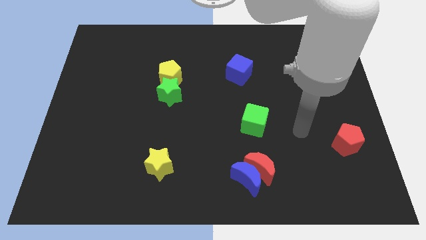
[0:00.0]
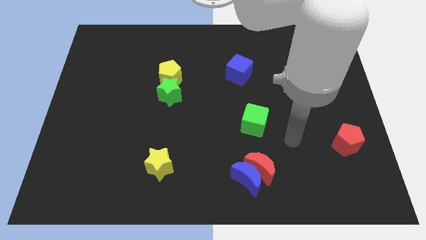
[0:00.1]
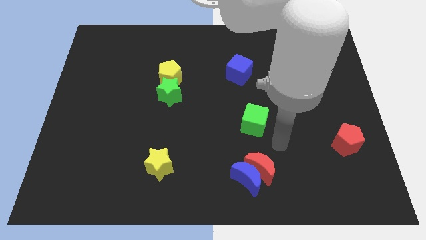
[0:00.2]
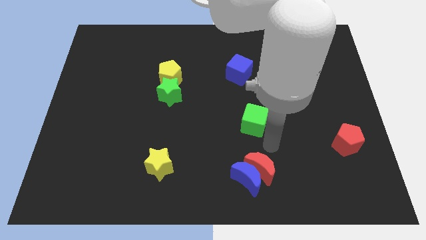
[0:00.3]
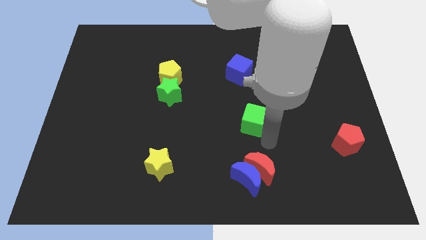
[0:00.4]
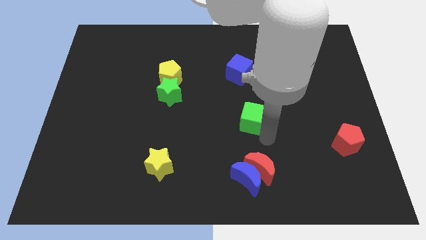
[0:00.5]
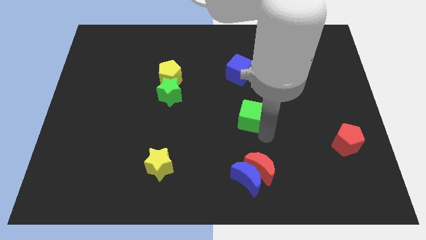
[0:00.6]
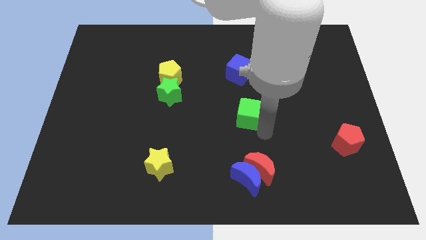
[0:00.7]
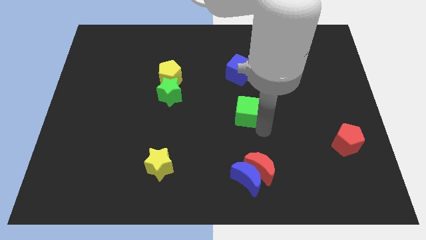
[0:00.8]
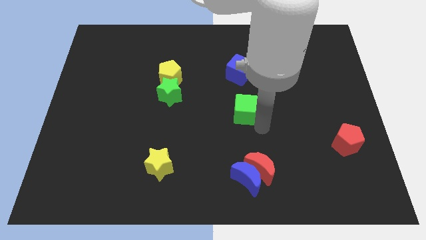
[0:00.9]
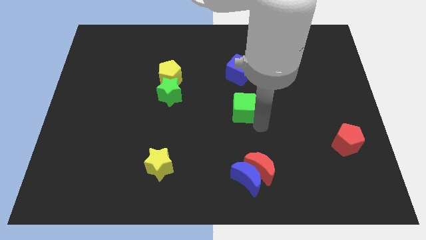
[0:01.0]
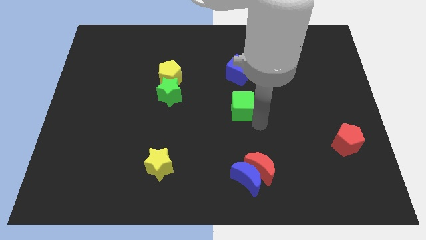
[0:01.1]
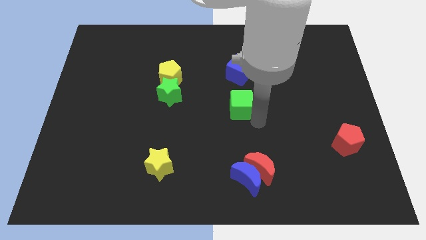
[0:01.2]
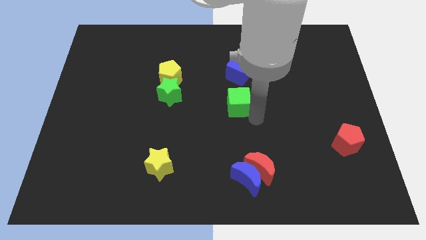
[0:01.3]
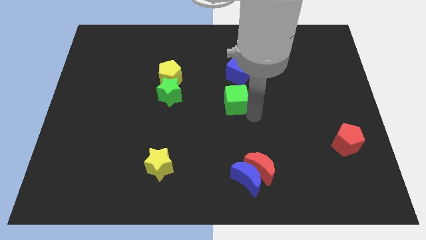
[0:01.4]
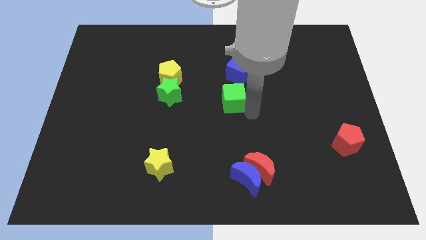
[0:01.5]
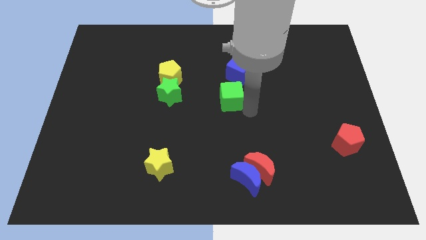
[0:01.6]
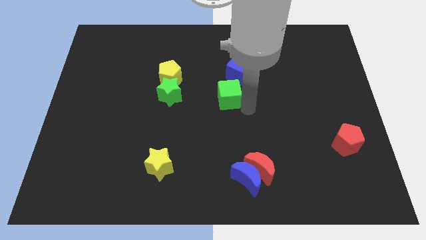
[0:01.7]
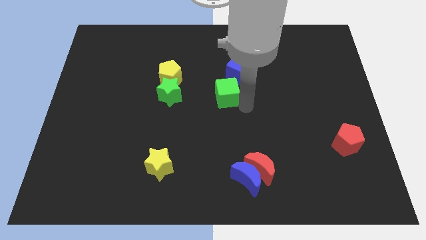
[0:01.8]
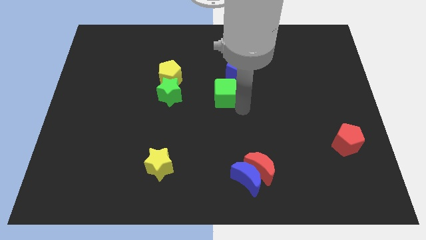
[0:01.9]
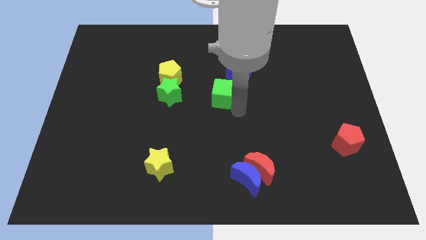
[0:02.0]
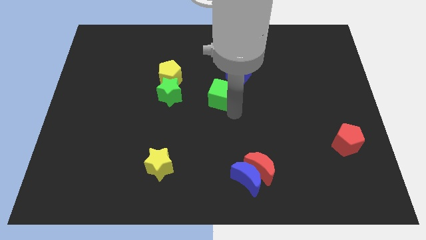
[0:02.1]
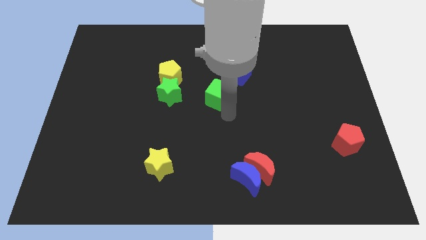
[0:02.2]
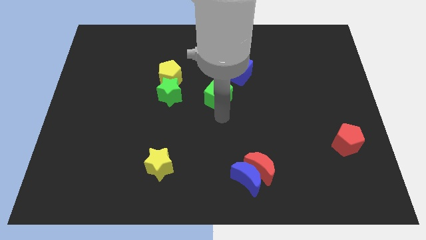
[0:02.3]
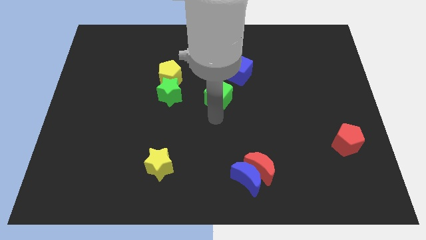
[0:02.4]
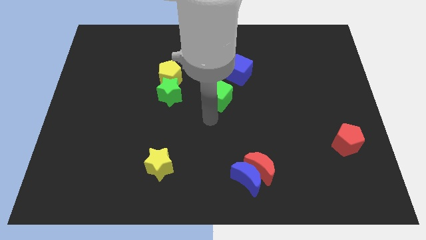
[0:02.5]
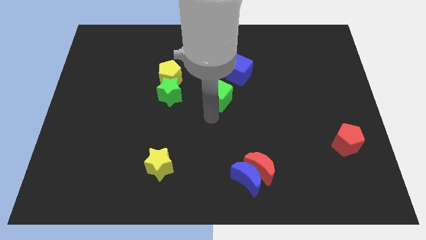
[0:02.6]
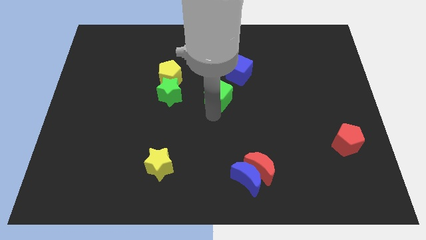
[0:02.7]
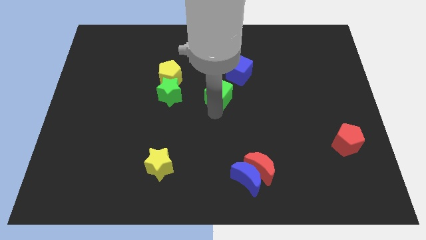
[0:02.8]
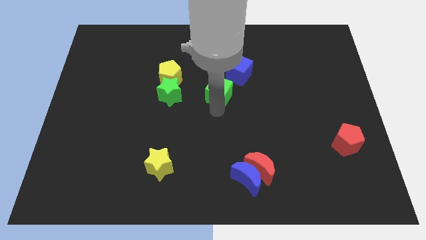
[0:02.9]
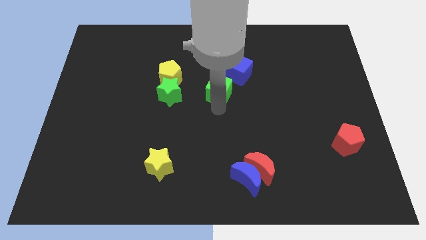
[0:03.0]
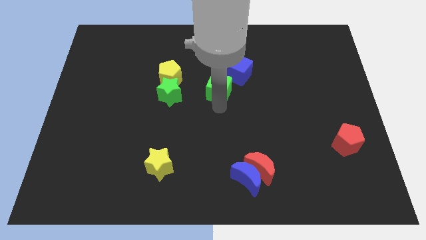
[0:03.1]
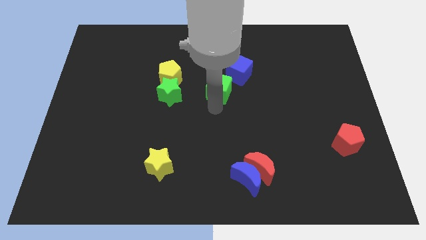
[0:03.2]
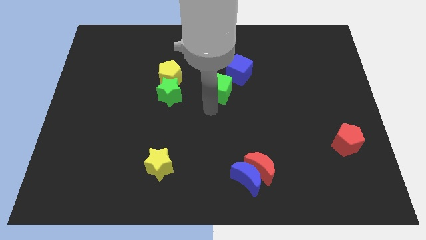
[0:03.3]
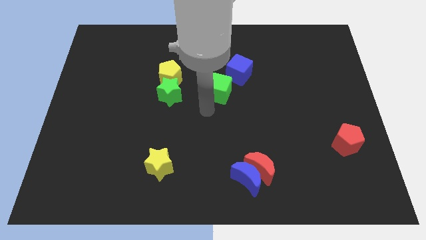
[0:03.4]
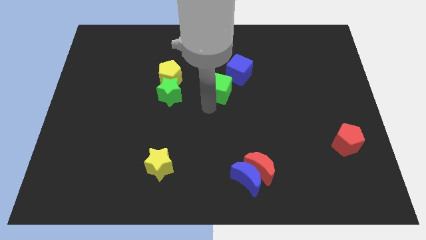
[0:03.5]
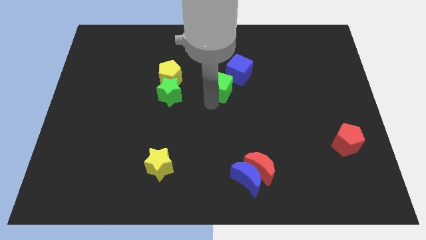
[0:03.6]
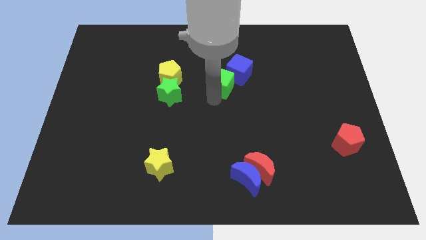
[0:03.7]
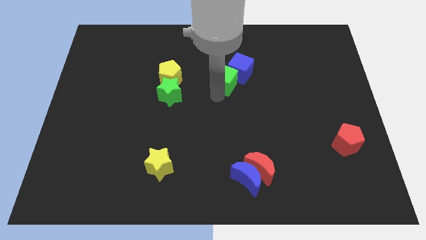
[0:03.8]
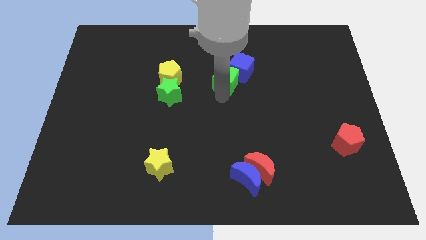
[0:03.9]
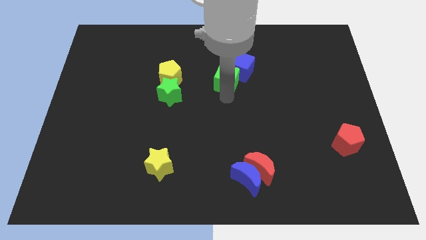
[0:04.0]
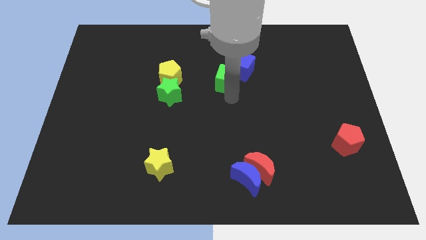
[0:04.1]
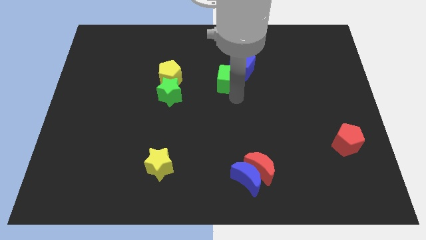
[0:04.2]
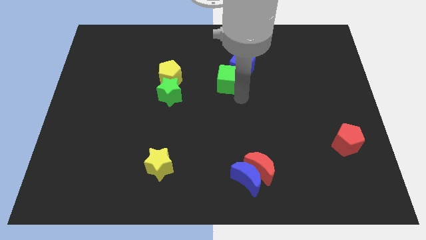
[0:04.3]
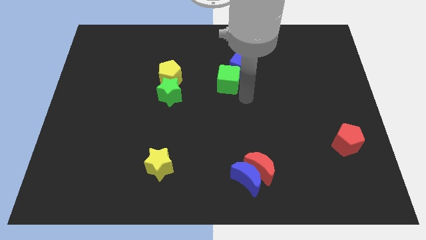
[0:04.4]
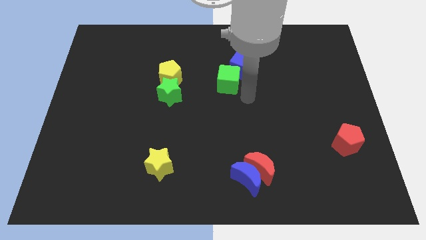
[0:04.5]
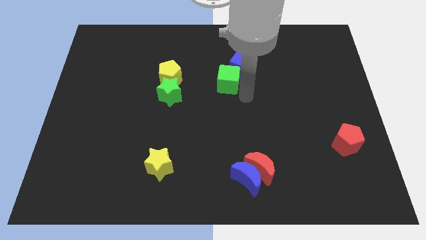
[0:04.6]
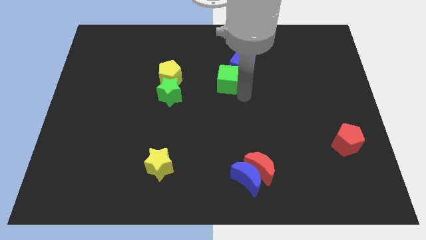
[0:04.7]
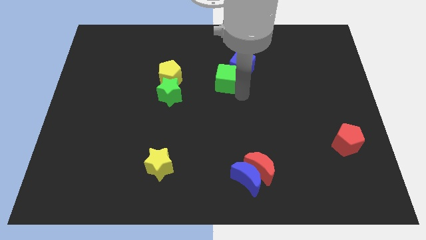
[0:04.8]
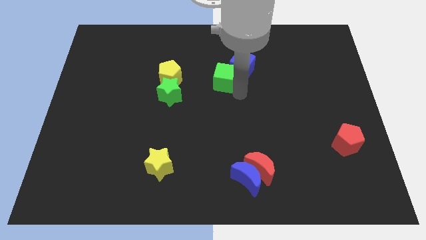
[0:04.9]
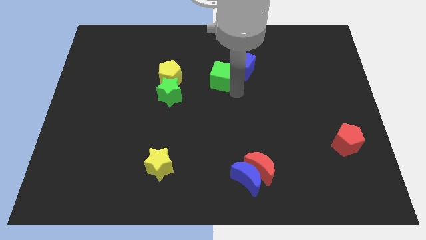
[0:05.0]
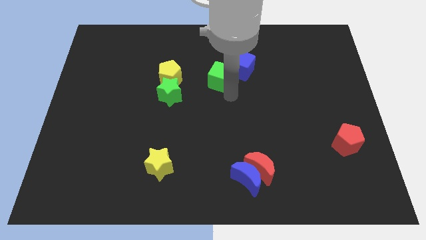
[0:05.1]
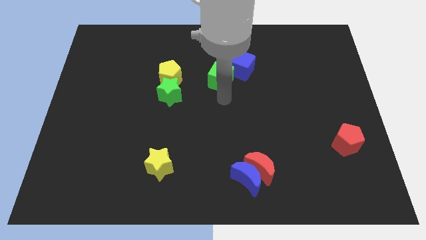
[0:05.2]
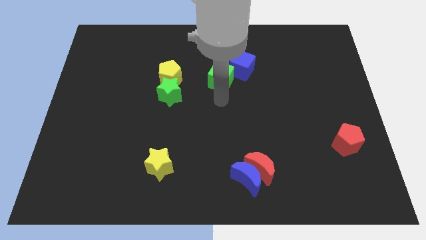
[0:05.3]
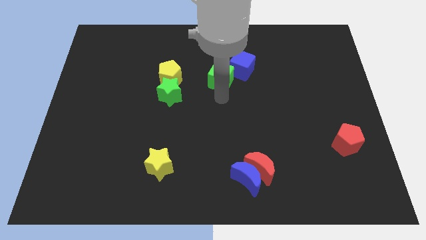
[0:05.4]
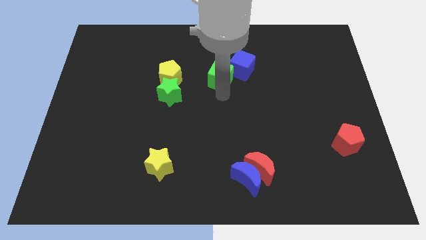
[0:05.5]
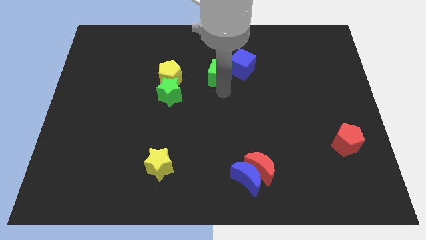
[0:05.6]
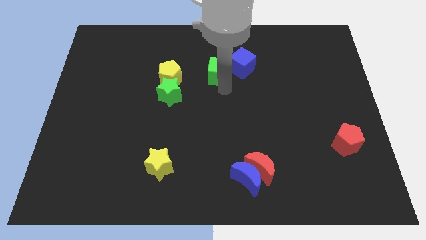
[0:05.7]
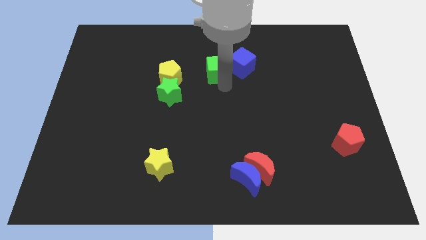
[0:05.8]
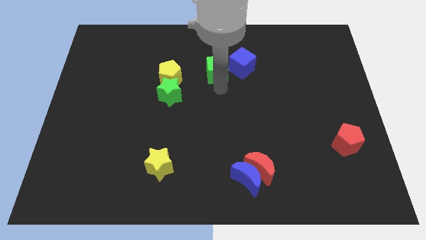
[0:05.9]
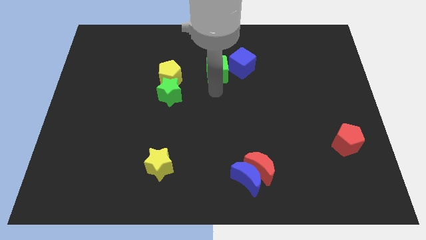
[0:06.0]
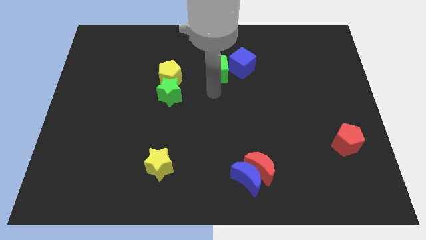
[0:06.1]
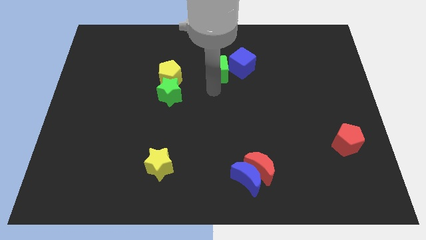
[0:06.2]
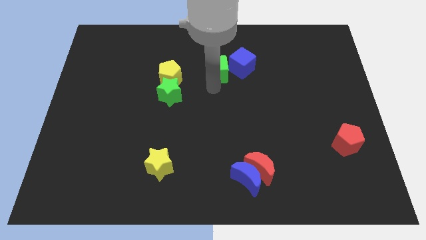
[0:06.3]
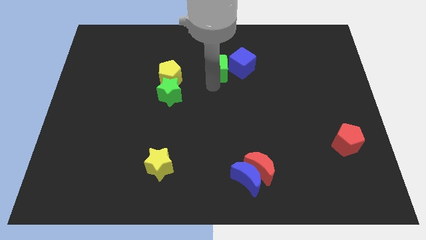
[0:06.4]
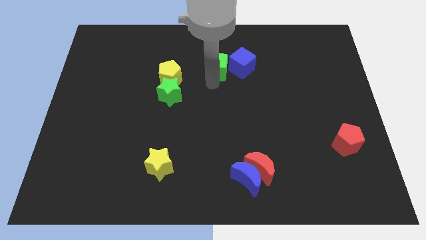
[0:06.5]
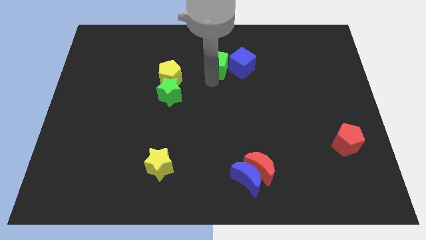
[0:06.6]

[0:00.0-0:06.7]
put the green cube to the top left side of the blue cube
